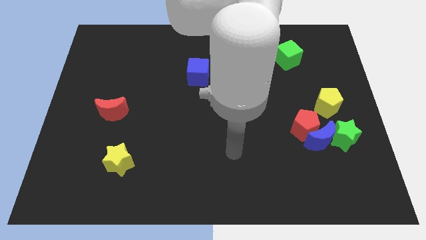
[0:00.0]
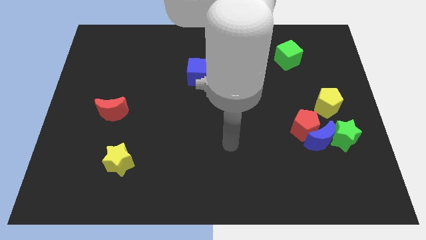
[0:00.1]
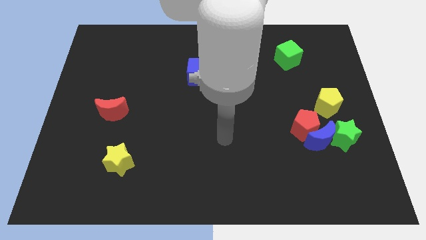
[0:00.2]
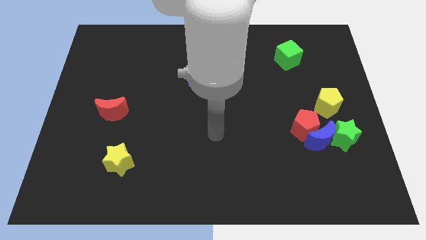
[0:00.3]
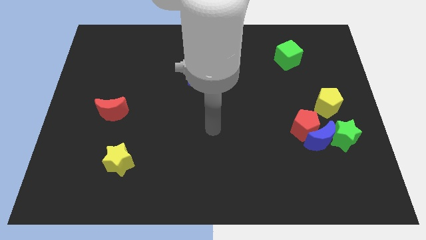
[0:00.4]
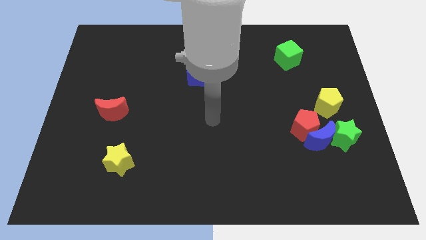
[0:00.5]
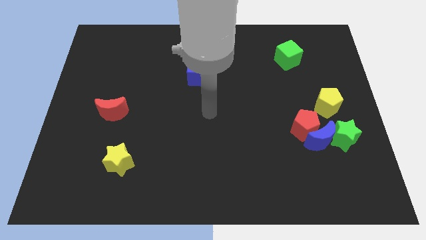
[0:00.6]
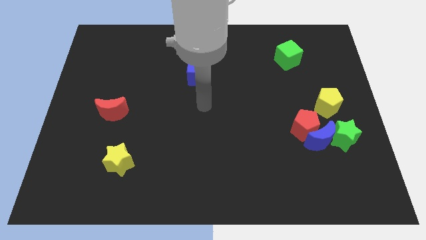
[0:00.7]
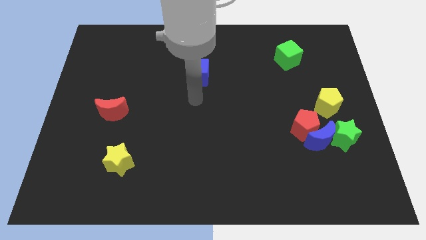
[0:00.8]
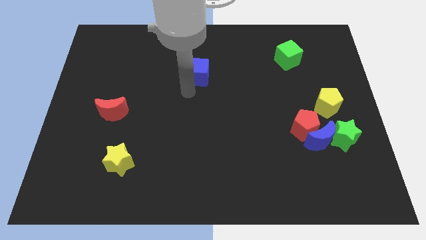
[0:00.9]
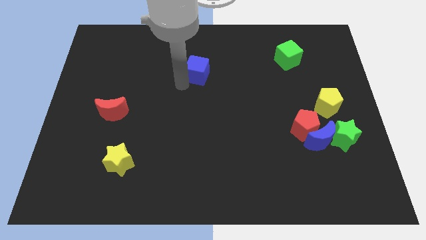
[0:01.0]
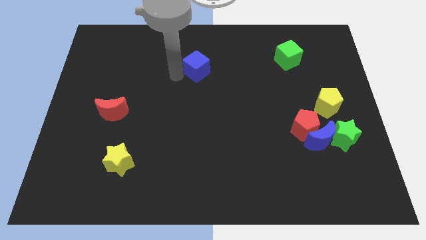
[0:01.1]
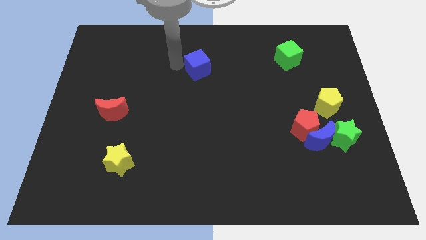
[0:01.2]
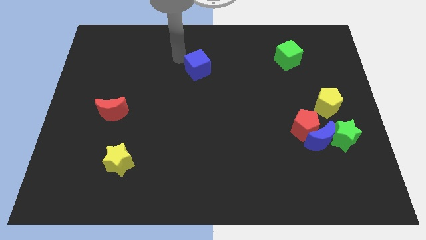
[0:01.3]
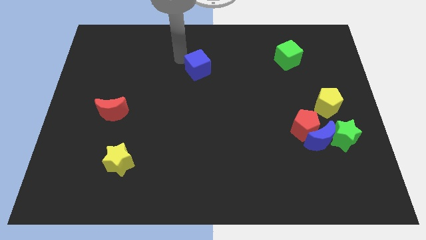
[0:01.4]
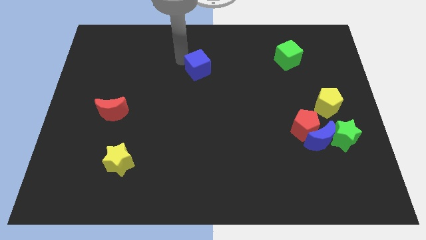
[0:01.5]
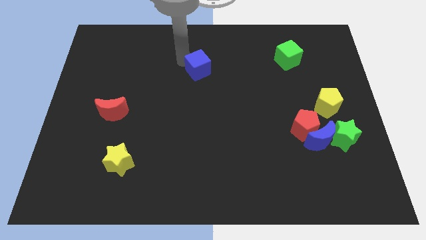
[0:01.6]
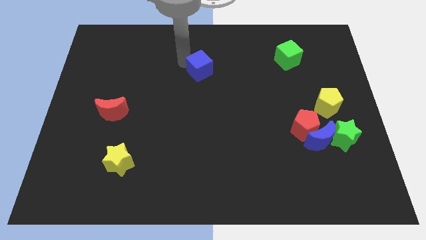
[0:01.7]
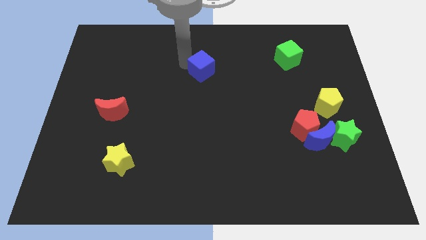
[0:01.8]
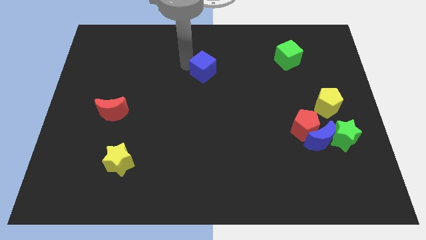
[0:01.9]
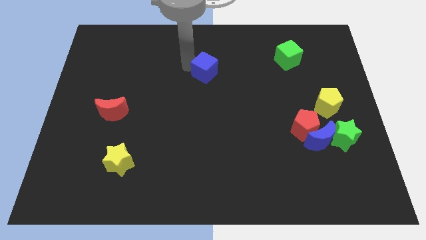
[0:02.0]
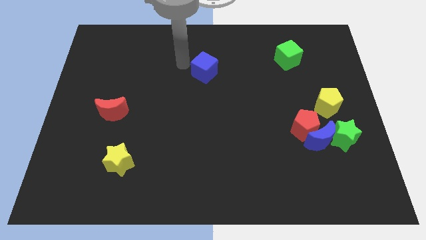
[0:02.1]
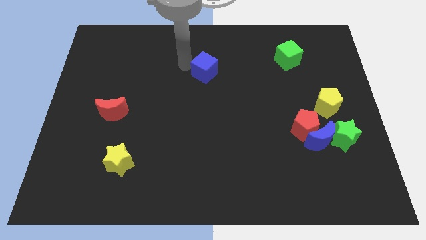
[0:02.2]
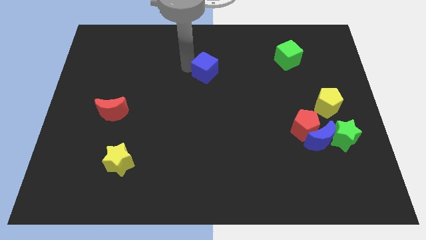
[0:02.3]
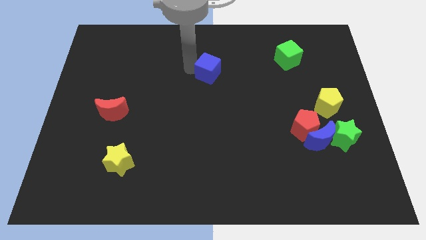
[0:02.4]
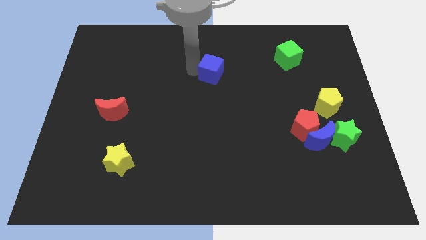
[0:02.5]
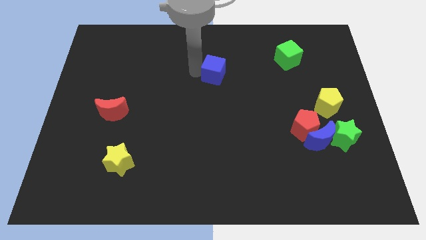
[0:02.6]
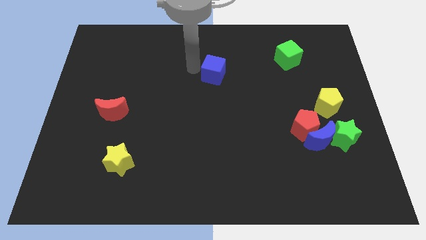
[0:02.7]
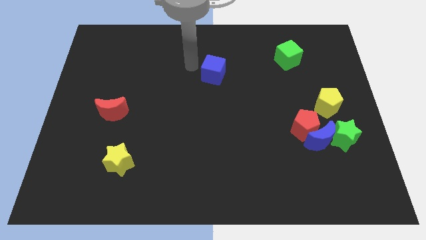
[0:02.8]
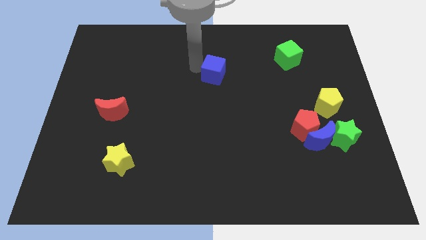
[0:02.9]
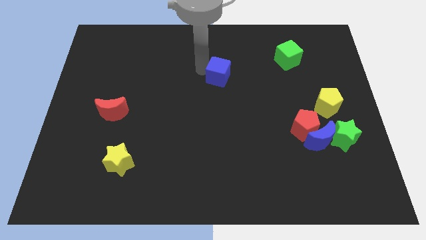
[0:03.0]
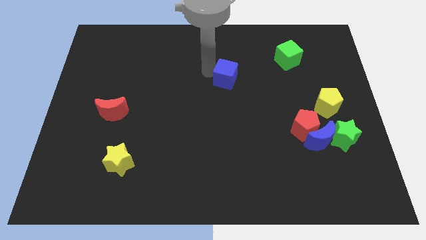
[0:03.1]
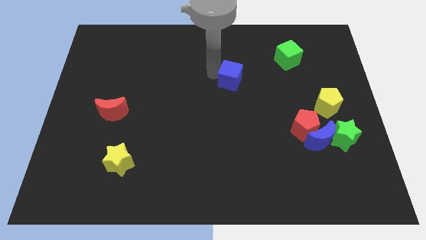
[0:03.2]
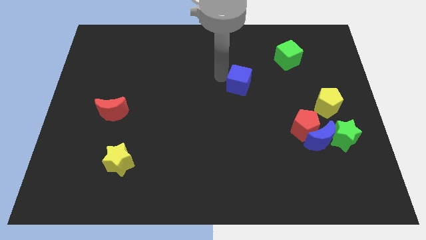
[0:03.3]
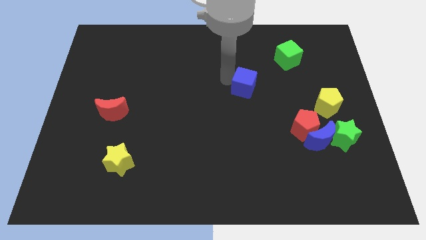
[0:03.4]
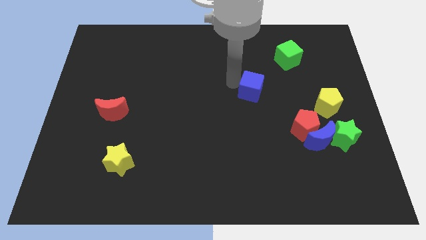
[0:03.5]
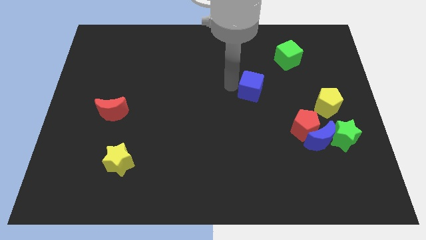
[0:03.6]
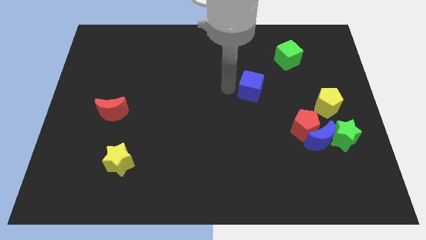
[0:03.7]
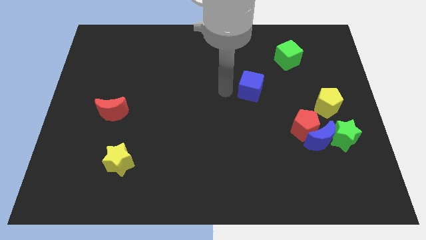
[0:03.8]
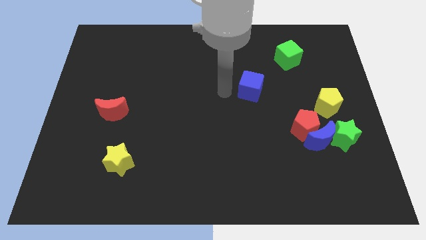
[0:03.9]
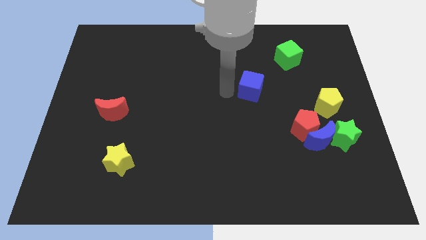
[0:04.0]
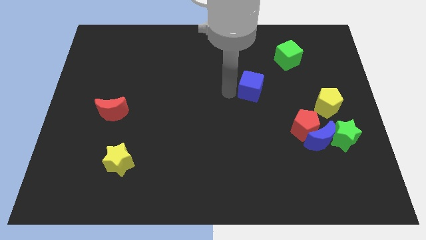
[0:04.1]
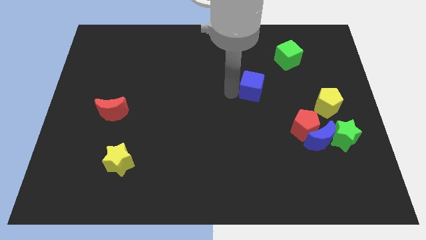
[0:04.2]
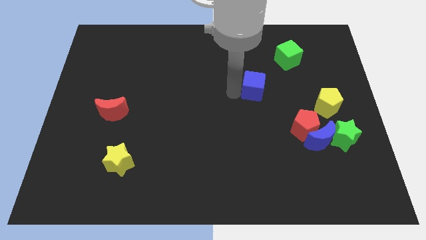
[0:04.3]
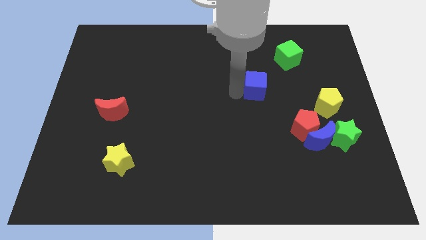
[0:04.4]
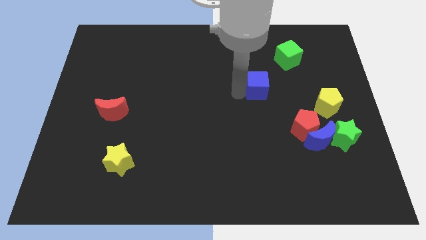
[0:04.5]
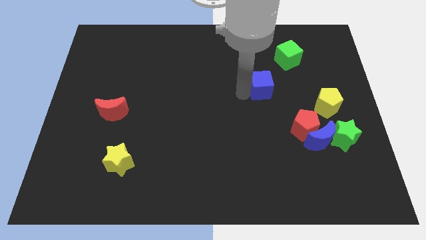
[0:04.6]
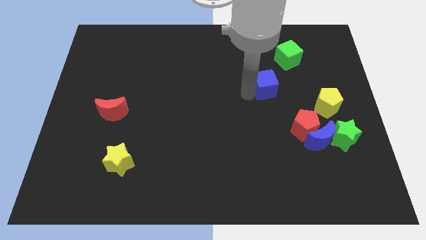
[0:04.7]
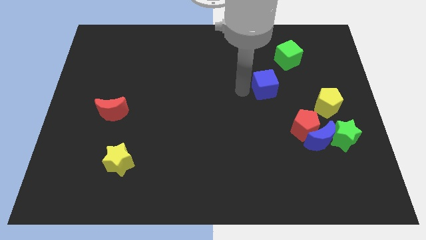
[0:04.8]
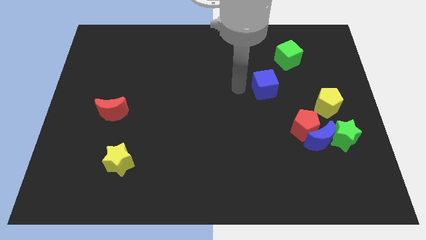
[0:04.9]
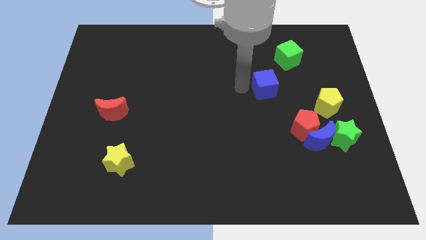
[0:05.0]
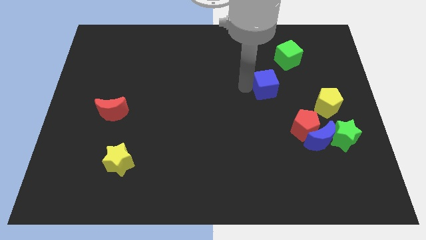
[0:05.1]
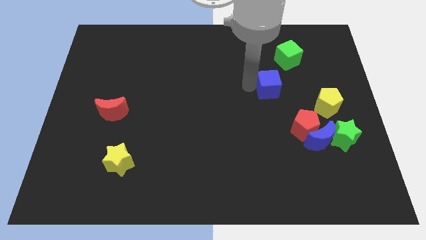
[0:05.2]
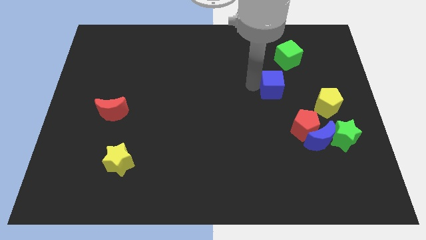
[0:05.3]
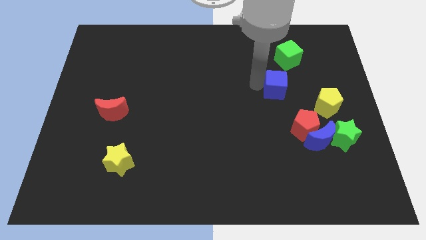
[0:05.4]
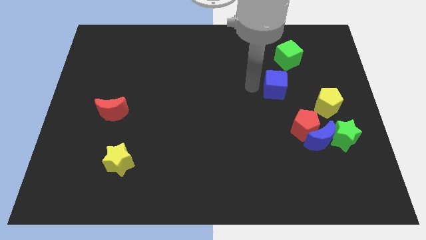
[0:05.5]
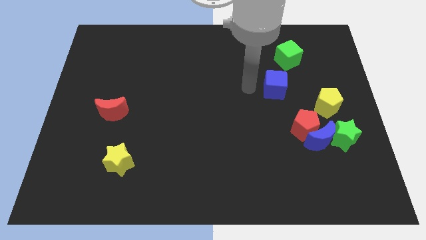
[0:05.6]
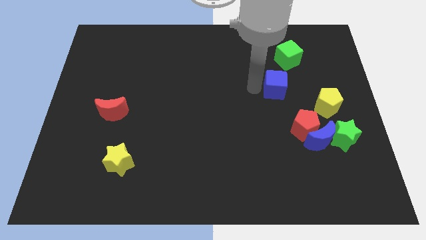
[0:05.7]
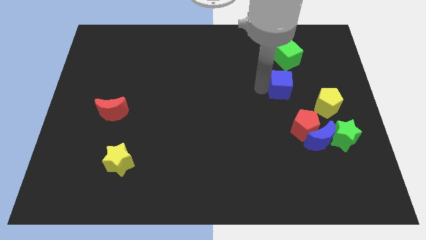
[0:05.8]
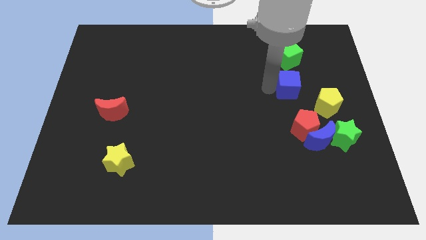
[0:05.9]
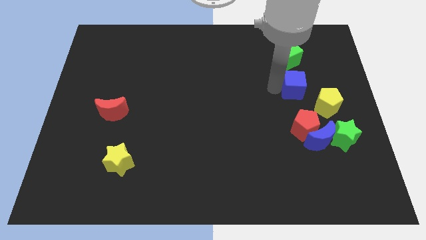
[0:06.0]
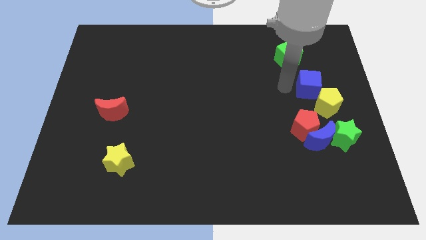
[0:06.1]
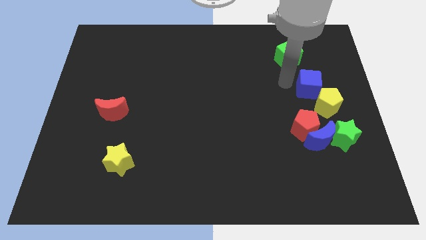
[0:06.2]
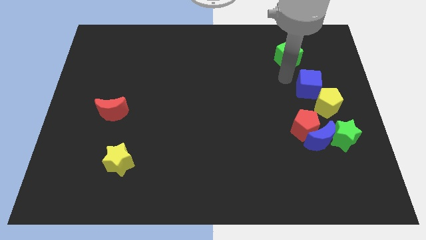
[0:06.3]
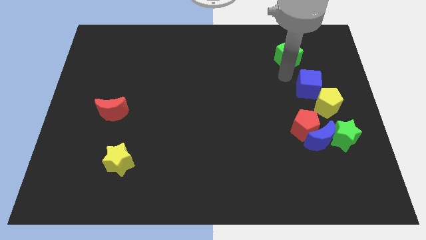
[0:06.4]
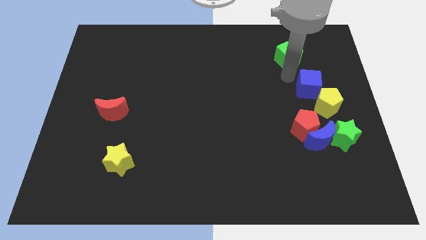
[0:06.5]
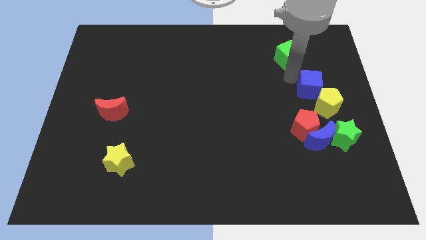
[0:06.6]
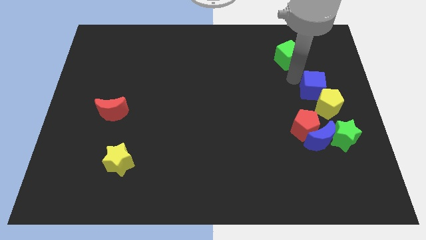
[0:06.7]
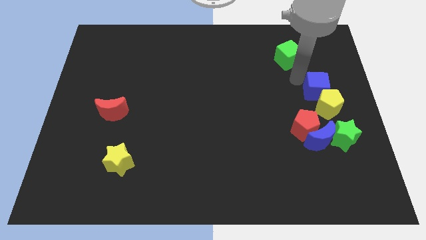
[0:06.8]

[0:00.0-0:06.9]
slide the blue cube to the top of the green star
